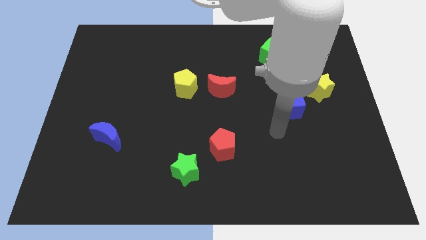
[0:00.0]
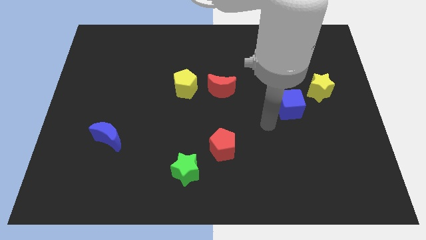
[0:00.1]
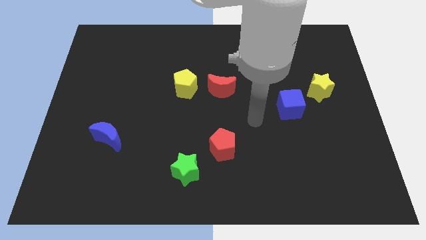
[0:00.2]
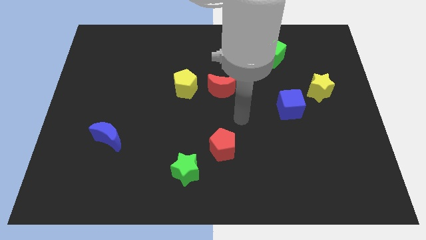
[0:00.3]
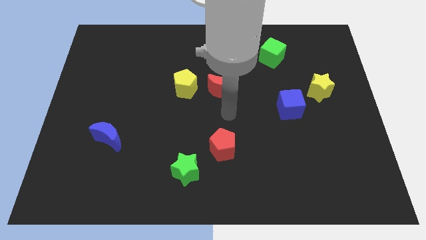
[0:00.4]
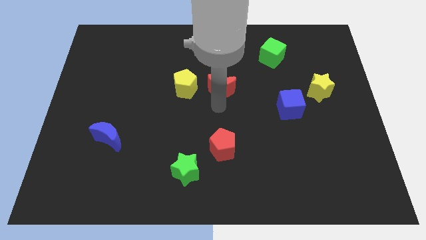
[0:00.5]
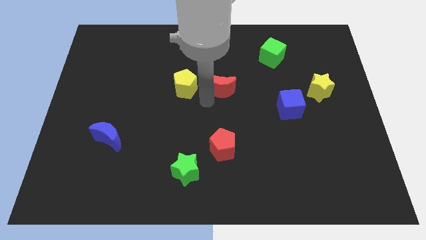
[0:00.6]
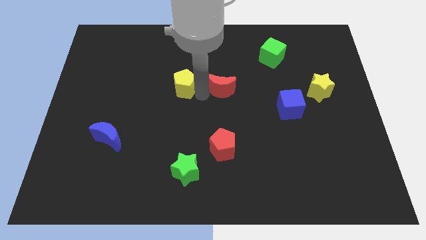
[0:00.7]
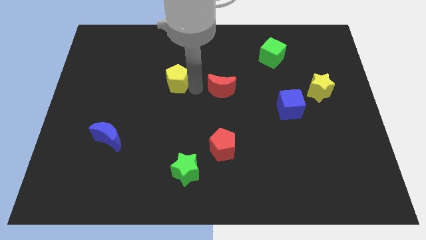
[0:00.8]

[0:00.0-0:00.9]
pull the red moon apart from the yellow pentagon

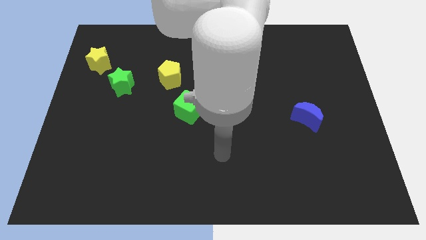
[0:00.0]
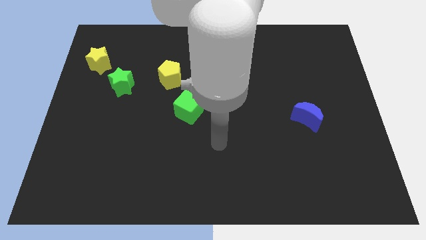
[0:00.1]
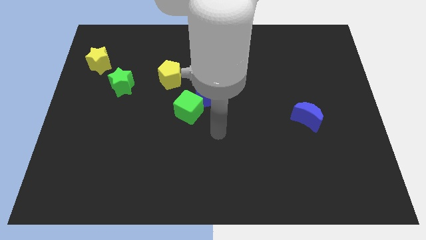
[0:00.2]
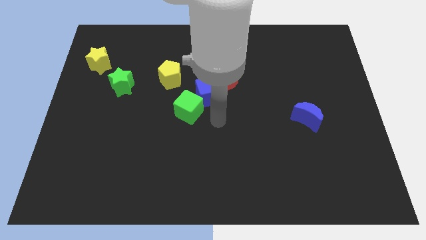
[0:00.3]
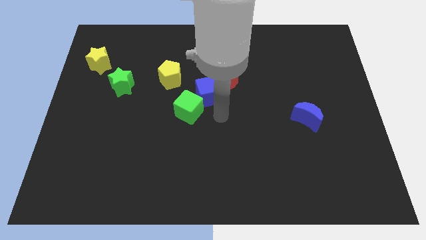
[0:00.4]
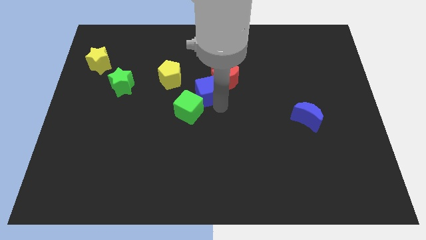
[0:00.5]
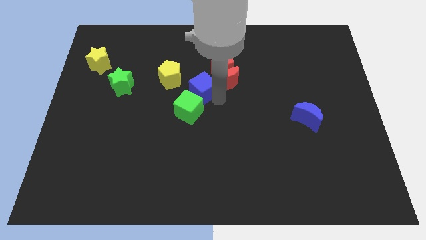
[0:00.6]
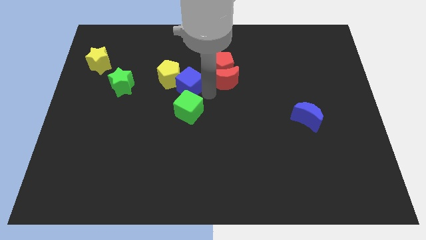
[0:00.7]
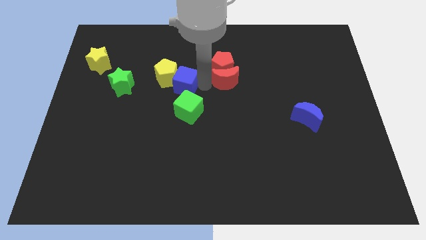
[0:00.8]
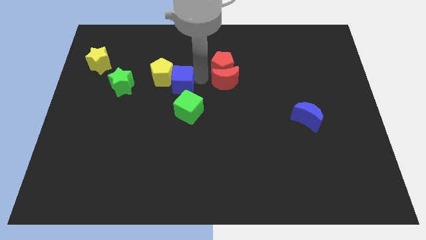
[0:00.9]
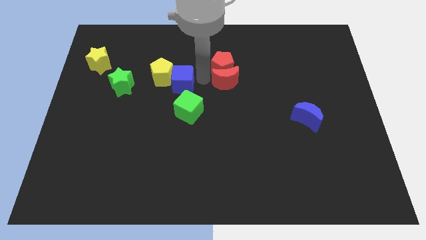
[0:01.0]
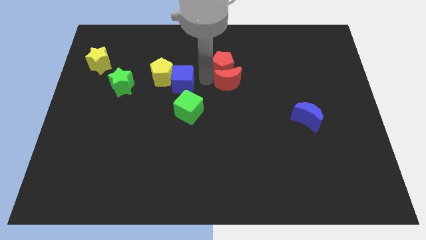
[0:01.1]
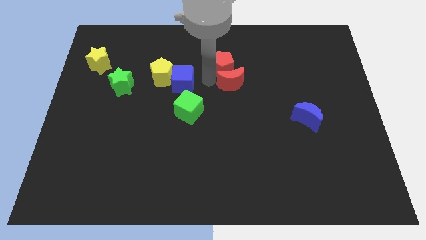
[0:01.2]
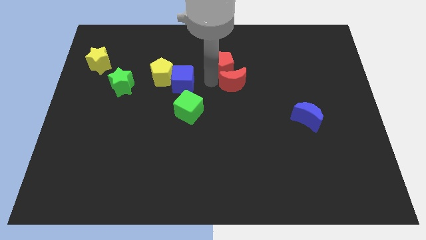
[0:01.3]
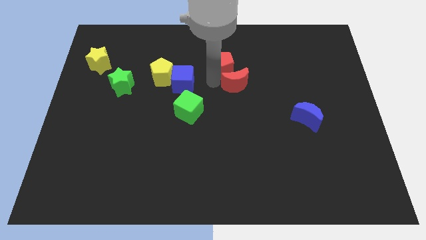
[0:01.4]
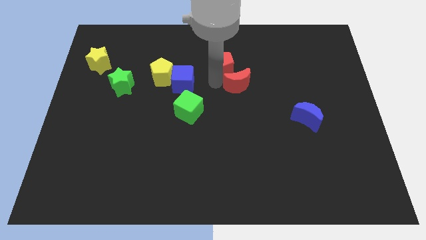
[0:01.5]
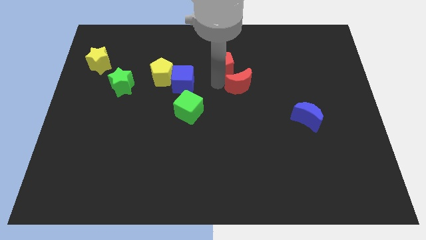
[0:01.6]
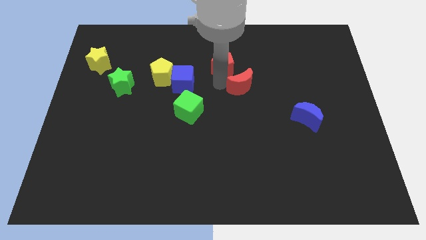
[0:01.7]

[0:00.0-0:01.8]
pull the red moon apart from the red pentagon and blue cube

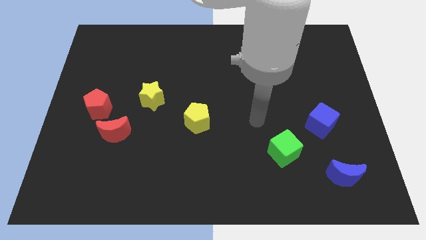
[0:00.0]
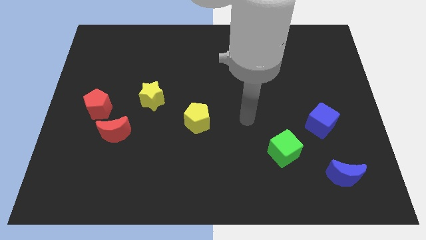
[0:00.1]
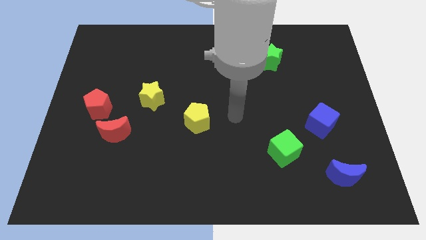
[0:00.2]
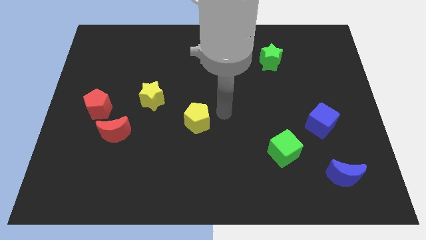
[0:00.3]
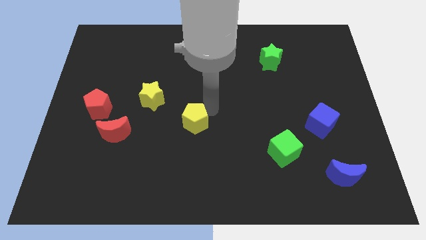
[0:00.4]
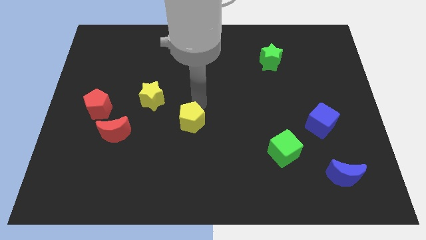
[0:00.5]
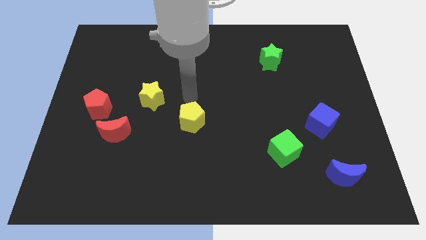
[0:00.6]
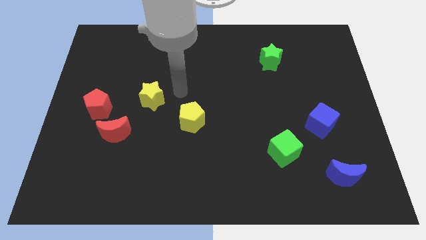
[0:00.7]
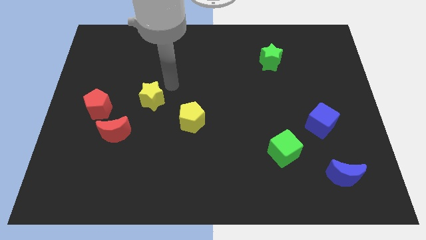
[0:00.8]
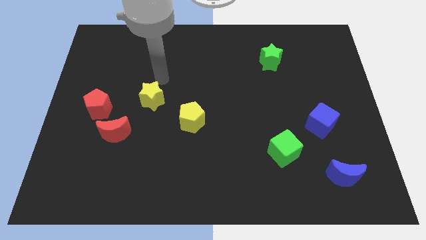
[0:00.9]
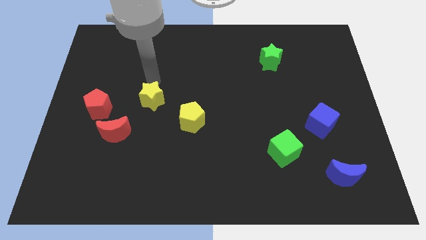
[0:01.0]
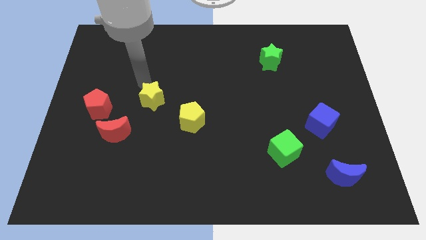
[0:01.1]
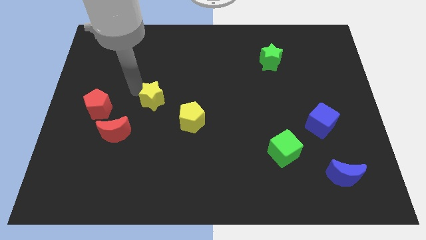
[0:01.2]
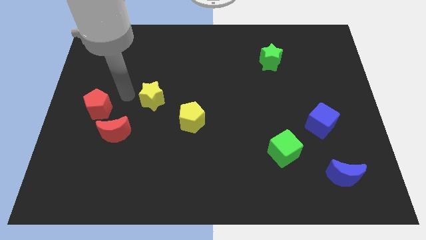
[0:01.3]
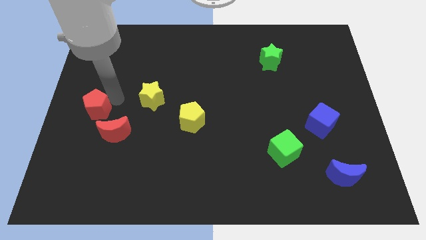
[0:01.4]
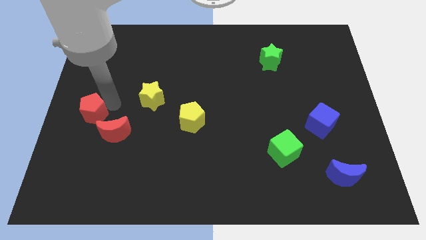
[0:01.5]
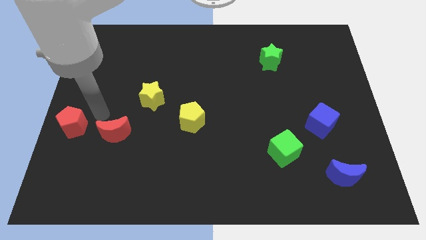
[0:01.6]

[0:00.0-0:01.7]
move the red moon away from the red pentagon

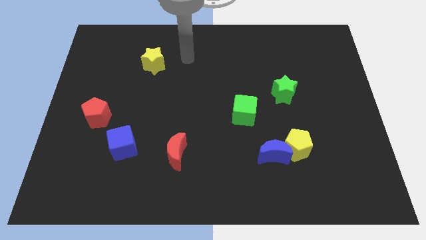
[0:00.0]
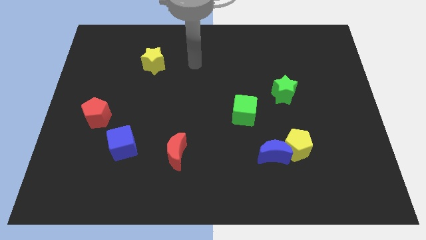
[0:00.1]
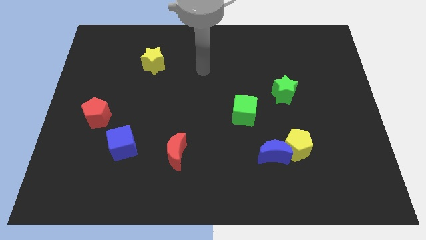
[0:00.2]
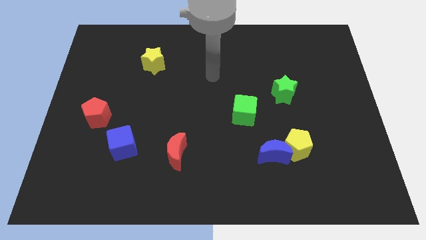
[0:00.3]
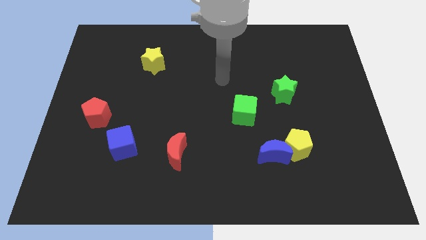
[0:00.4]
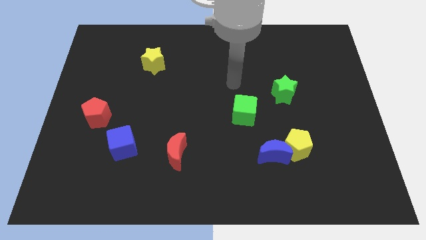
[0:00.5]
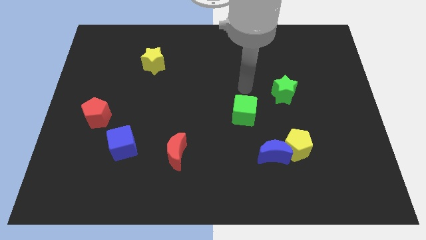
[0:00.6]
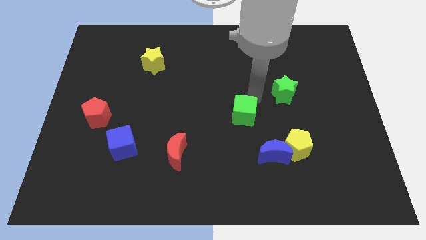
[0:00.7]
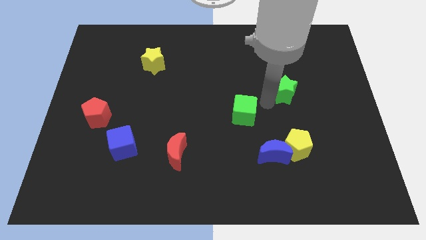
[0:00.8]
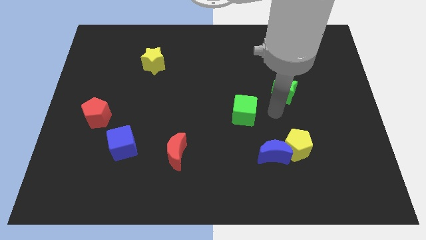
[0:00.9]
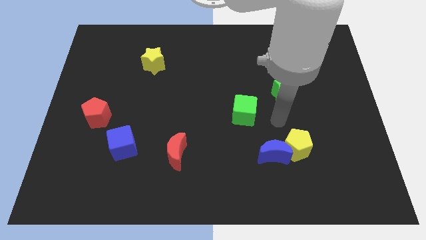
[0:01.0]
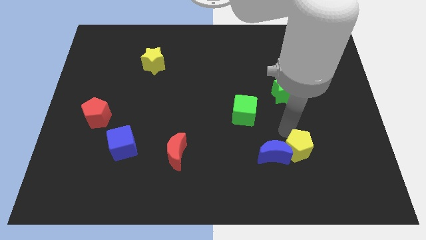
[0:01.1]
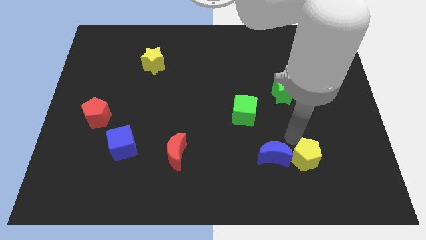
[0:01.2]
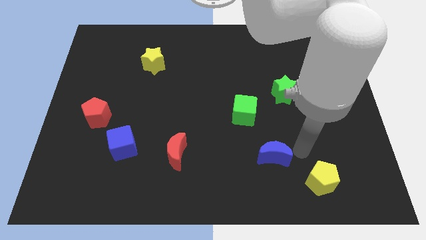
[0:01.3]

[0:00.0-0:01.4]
pull the blue moon apart from the yellow pentagon

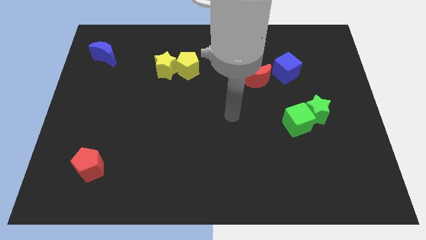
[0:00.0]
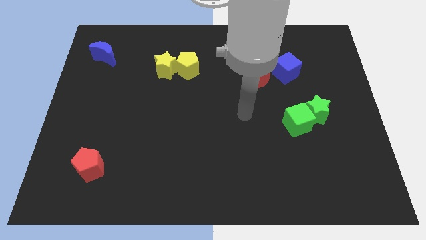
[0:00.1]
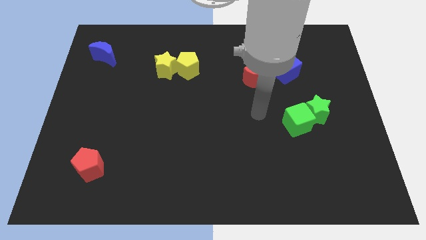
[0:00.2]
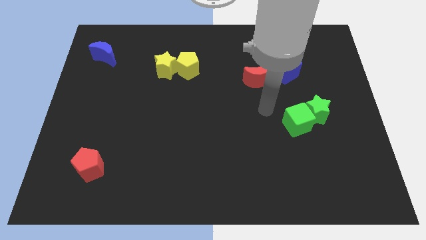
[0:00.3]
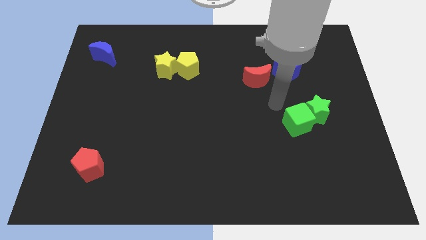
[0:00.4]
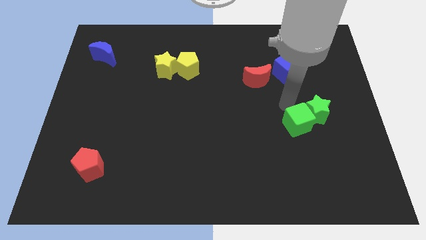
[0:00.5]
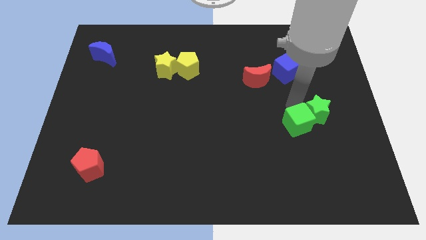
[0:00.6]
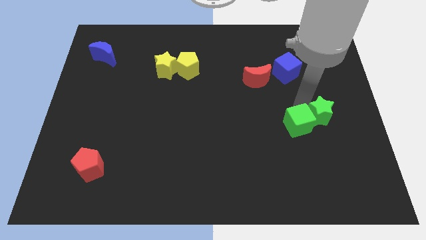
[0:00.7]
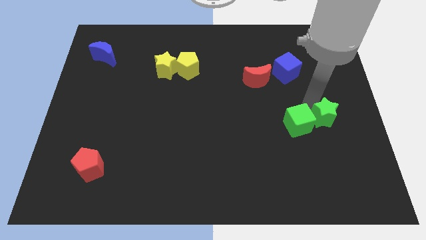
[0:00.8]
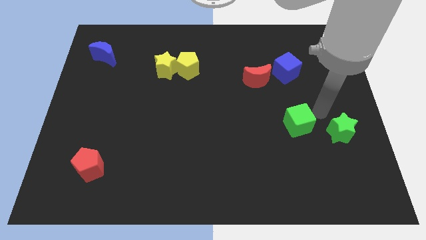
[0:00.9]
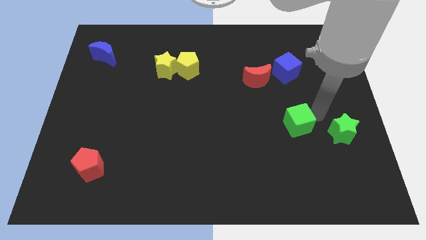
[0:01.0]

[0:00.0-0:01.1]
separate the green cube from the green star

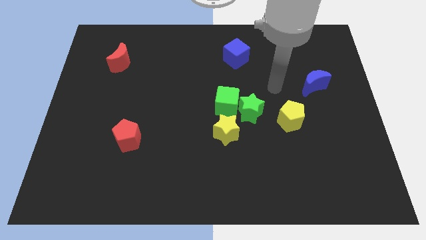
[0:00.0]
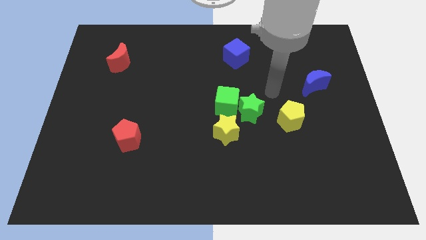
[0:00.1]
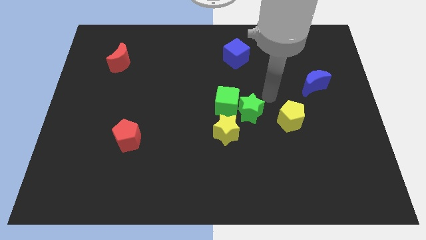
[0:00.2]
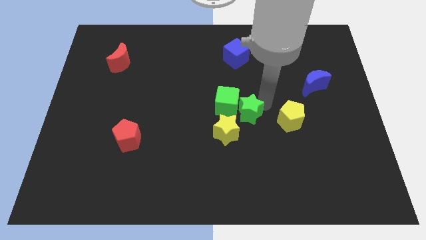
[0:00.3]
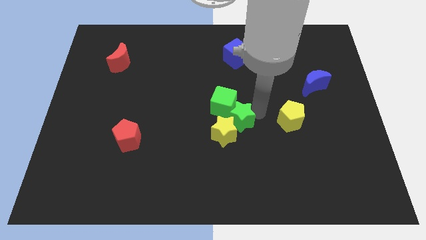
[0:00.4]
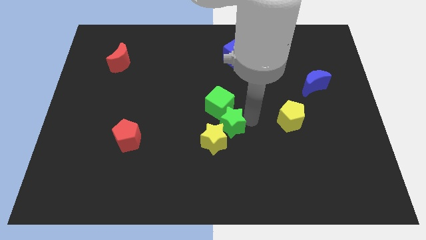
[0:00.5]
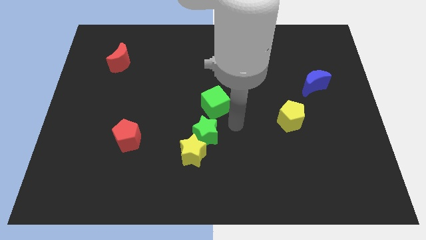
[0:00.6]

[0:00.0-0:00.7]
move the green cube away from the green star and yellow star

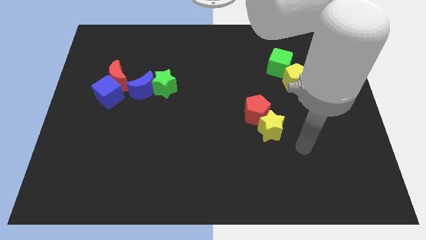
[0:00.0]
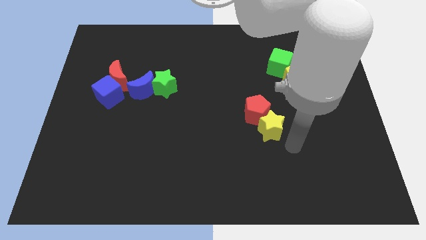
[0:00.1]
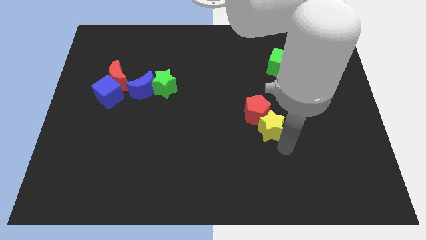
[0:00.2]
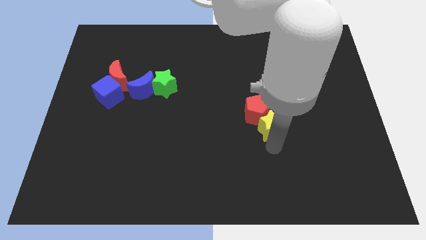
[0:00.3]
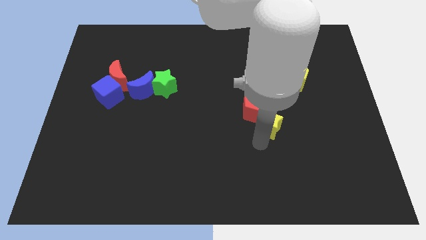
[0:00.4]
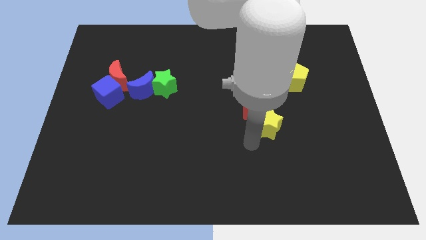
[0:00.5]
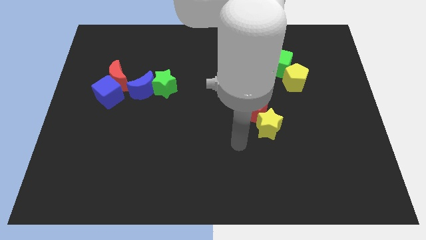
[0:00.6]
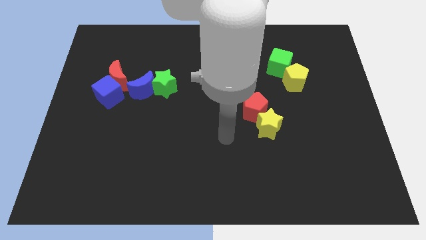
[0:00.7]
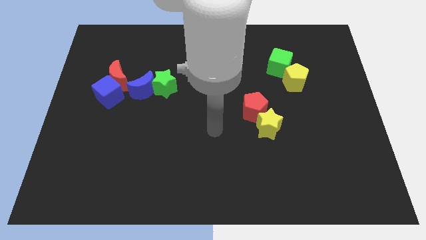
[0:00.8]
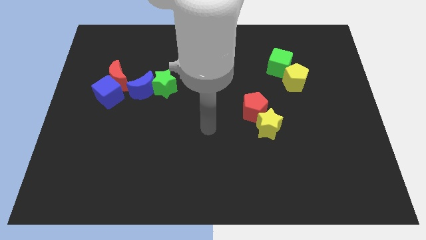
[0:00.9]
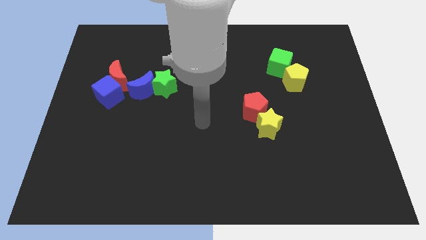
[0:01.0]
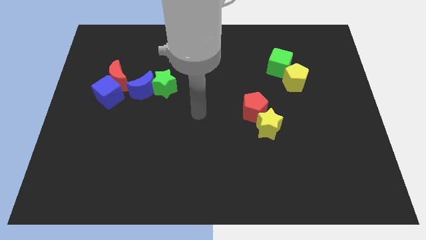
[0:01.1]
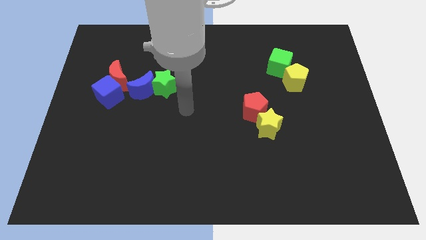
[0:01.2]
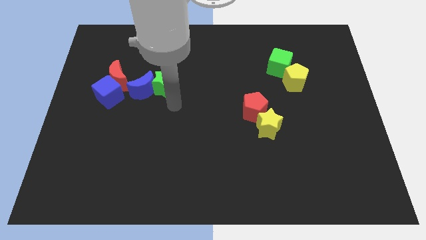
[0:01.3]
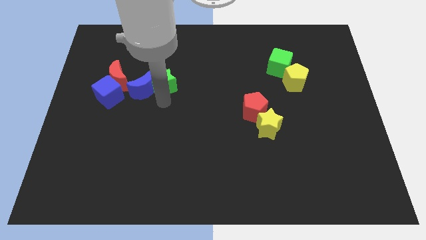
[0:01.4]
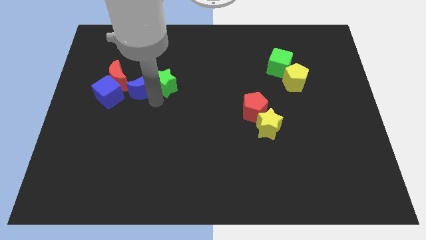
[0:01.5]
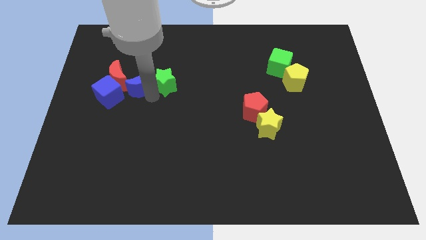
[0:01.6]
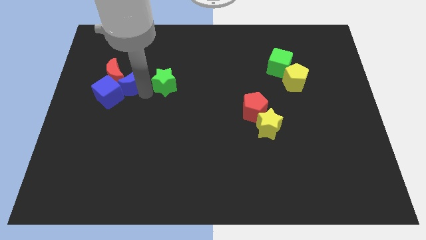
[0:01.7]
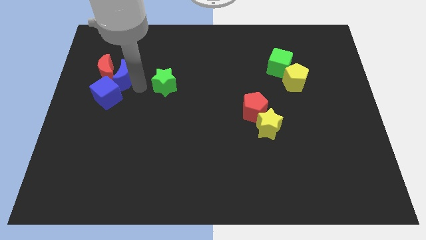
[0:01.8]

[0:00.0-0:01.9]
separate the green star from the blue moon

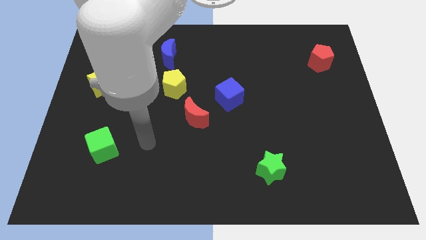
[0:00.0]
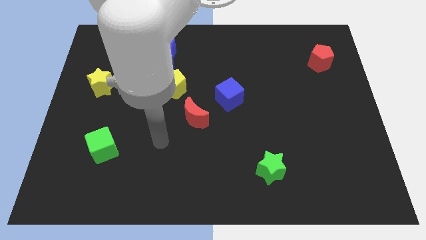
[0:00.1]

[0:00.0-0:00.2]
separate the red moon from the blue cube
